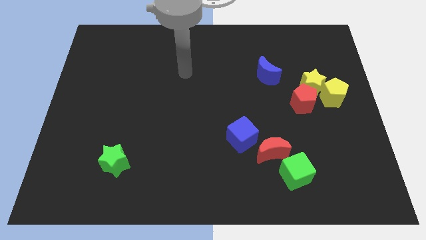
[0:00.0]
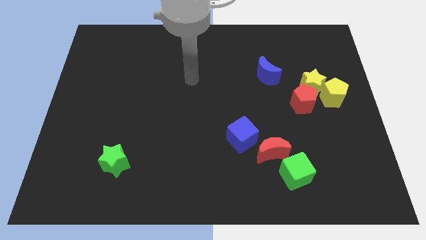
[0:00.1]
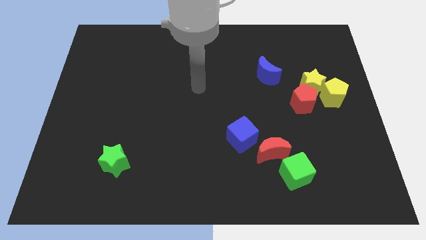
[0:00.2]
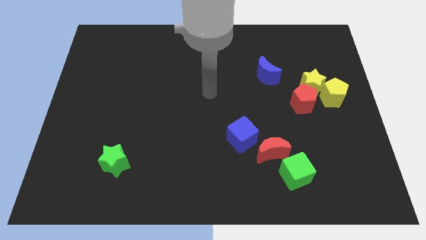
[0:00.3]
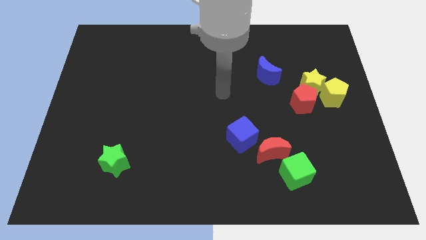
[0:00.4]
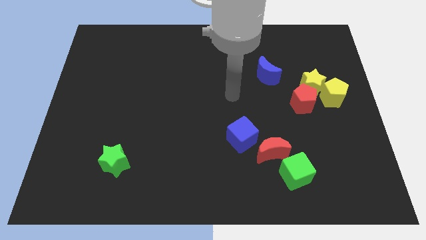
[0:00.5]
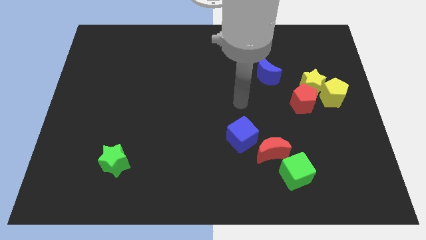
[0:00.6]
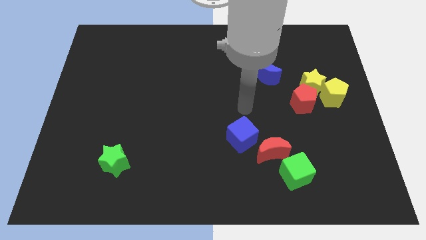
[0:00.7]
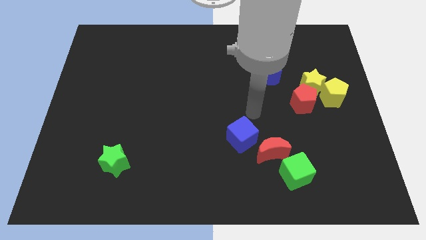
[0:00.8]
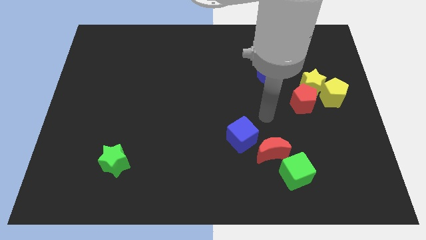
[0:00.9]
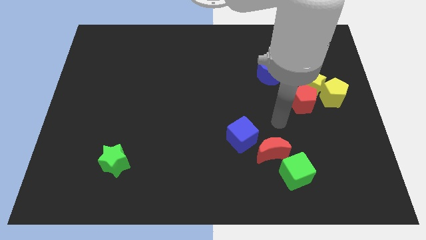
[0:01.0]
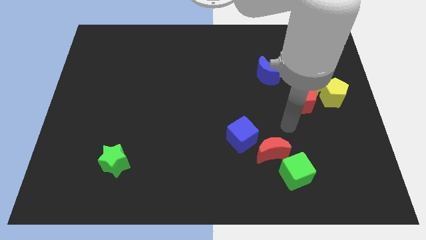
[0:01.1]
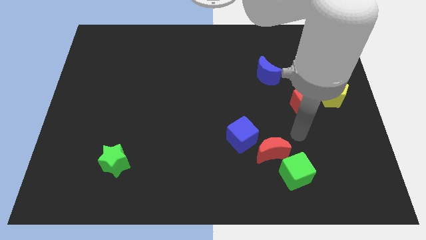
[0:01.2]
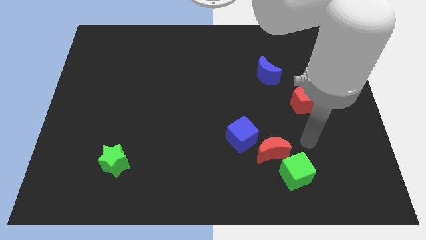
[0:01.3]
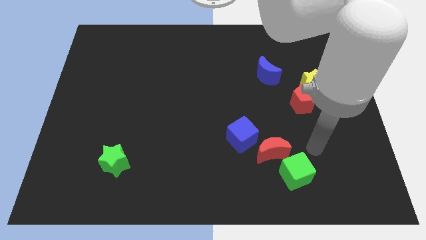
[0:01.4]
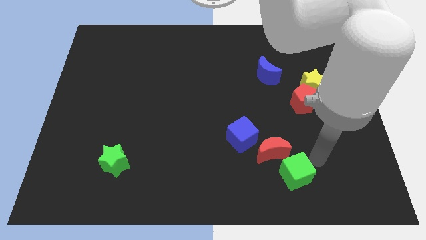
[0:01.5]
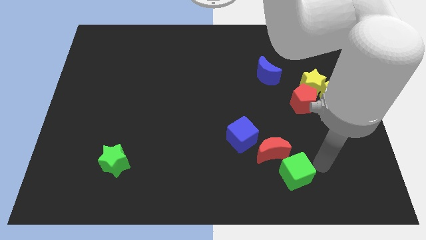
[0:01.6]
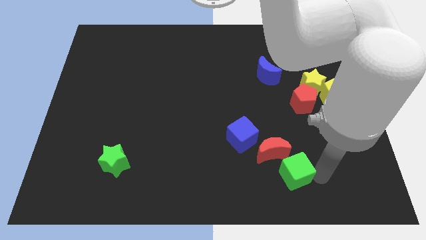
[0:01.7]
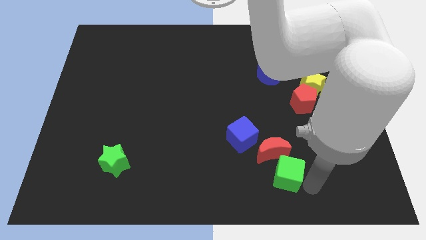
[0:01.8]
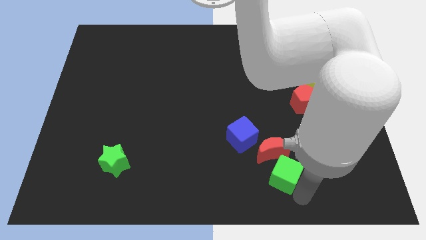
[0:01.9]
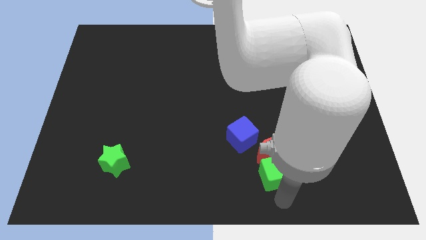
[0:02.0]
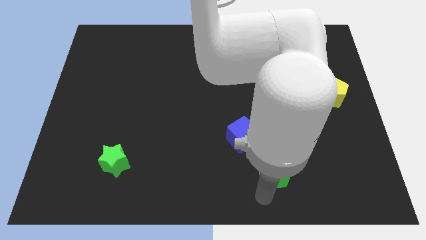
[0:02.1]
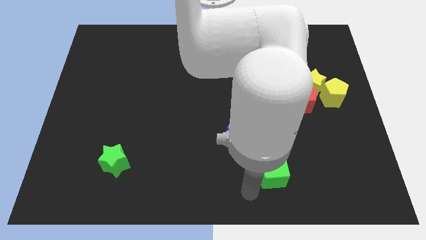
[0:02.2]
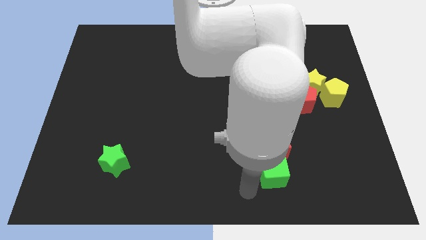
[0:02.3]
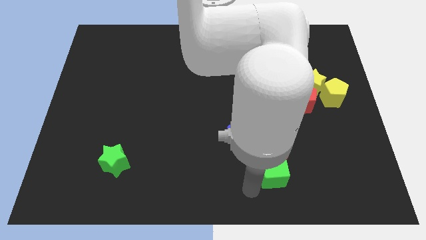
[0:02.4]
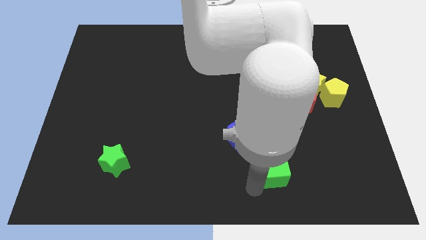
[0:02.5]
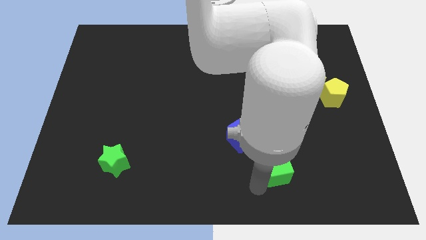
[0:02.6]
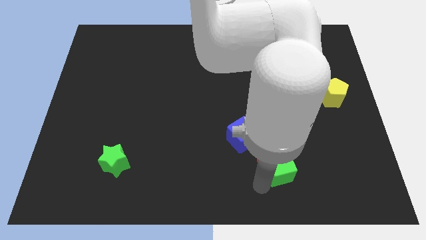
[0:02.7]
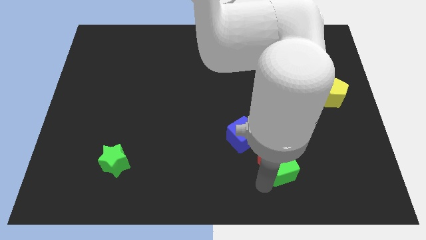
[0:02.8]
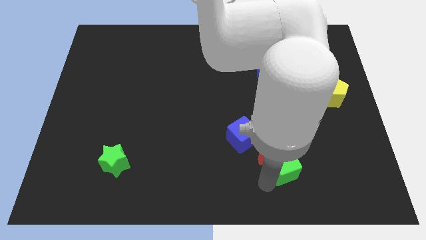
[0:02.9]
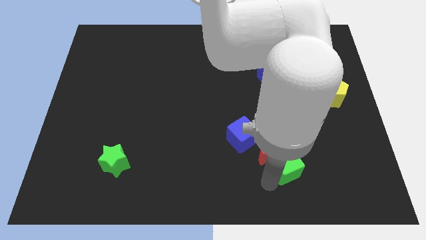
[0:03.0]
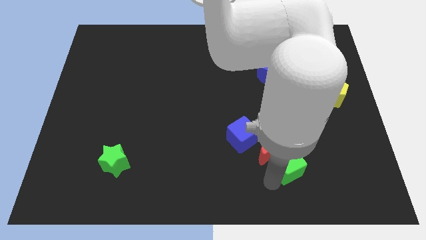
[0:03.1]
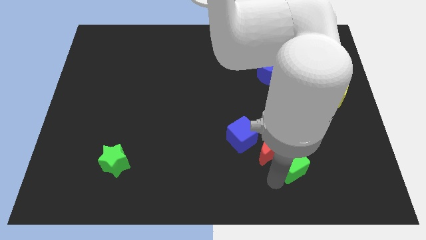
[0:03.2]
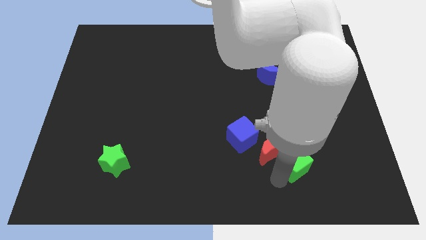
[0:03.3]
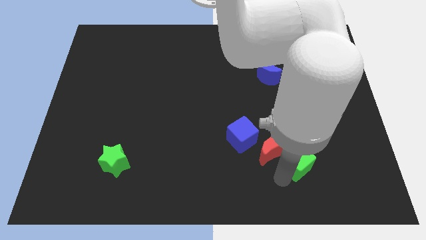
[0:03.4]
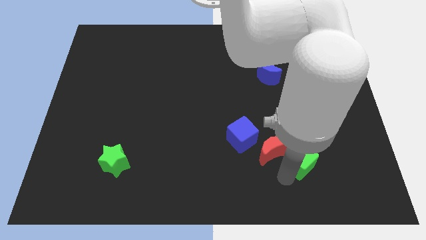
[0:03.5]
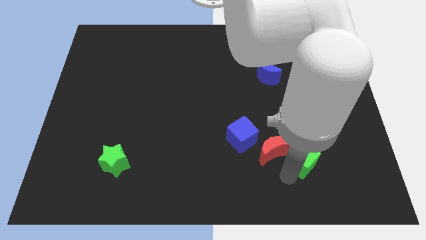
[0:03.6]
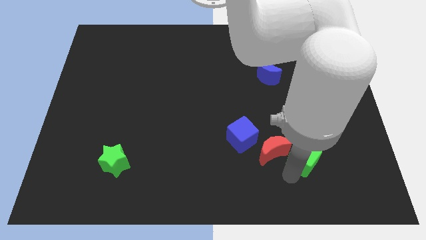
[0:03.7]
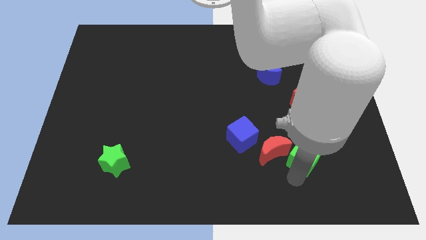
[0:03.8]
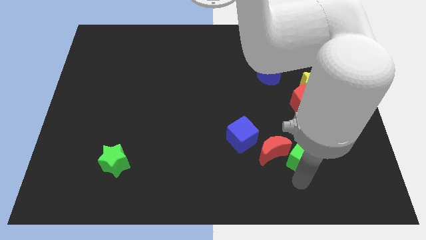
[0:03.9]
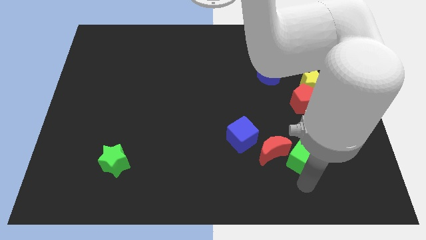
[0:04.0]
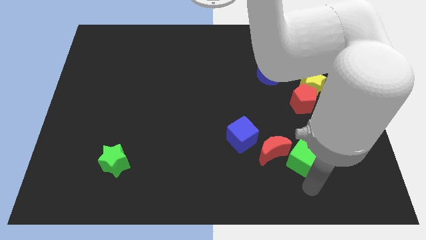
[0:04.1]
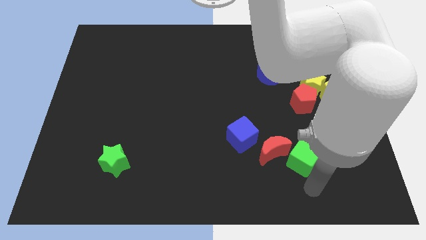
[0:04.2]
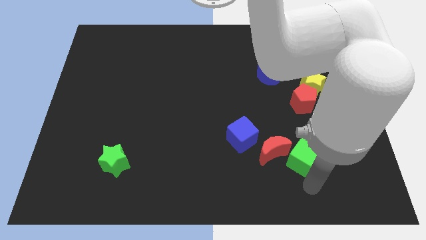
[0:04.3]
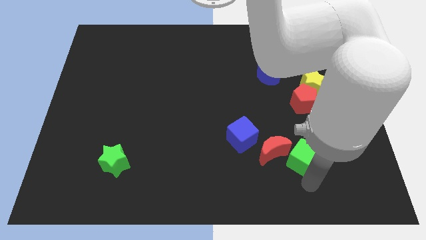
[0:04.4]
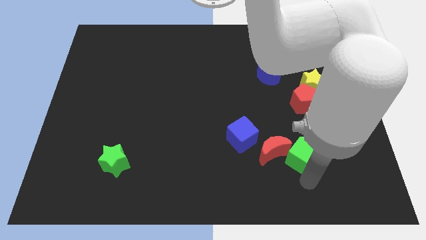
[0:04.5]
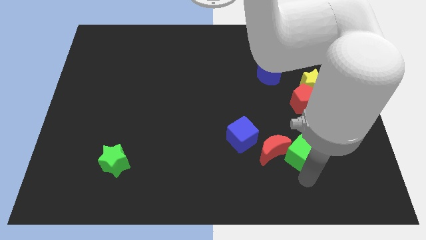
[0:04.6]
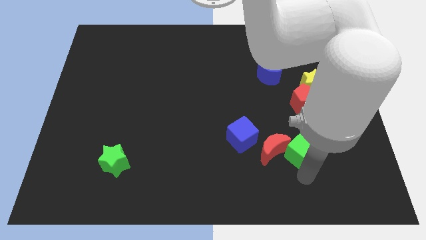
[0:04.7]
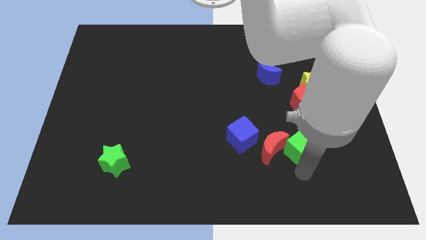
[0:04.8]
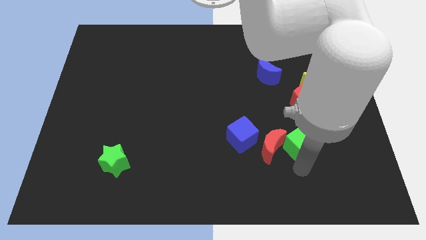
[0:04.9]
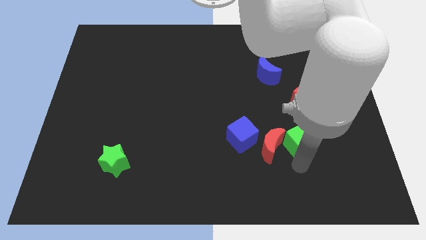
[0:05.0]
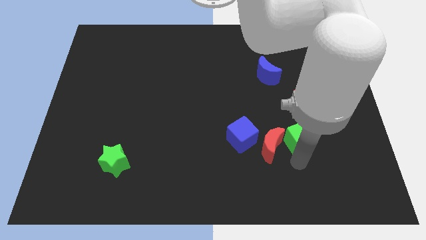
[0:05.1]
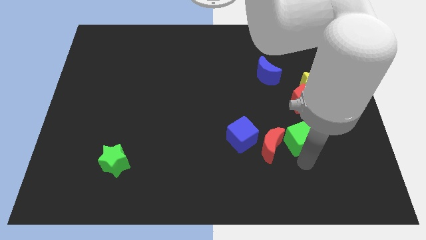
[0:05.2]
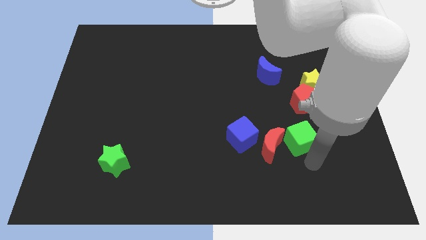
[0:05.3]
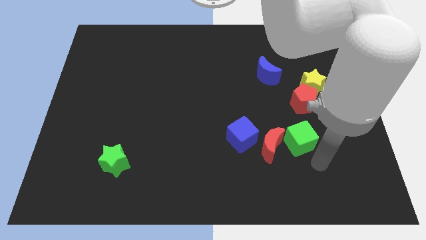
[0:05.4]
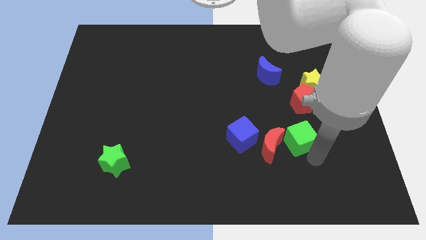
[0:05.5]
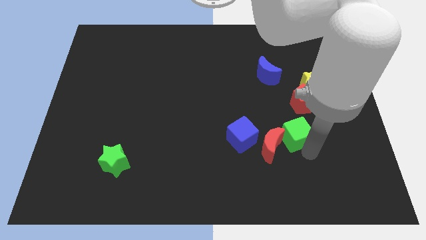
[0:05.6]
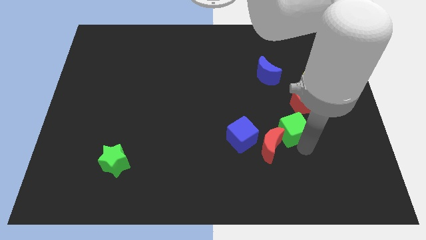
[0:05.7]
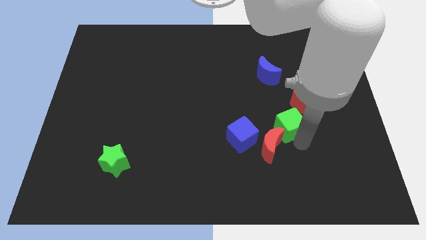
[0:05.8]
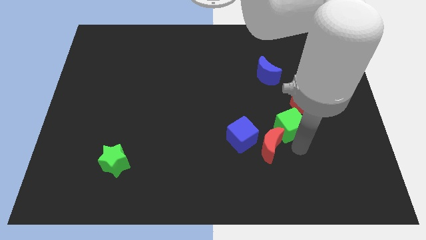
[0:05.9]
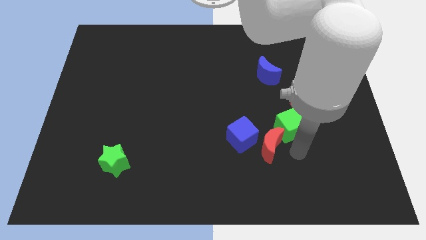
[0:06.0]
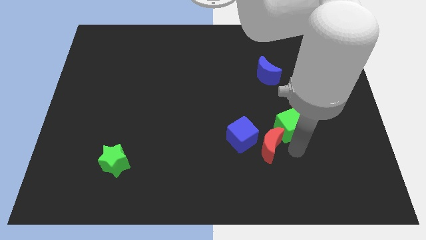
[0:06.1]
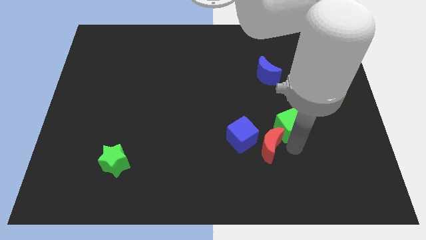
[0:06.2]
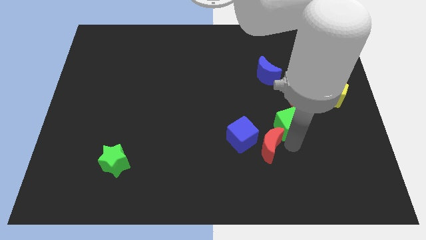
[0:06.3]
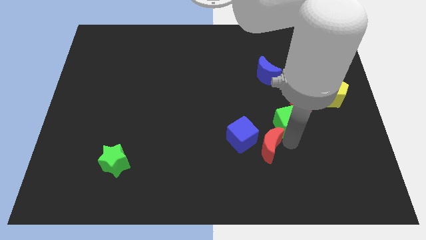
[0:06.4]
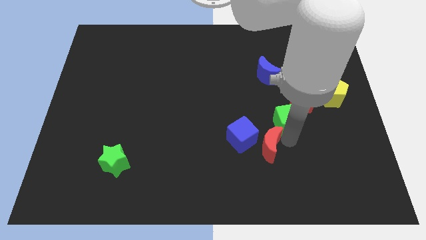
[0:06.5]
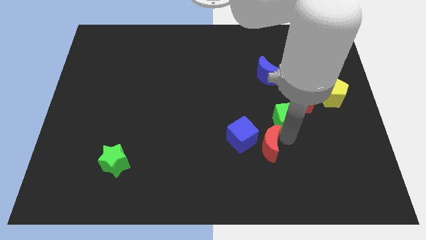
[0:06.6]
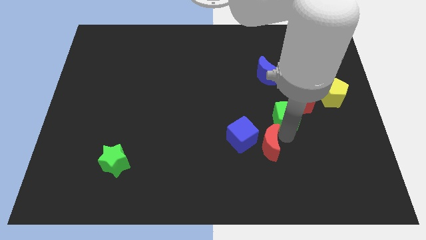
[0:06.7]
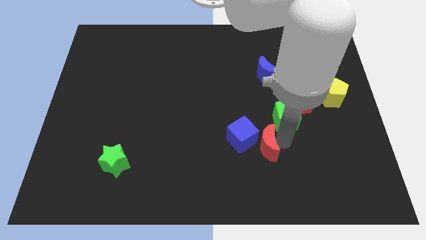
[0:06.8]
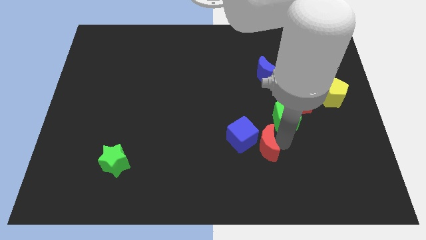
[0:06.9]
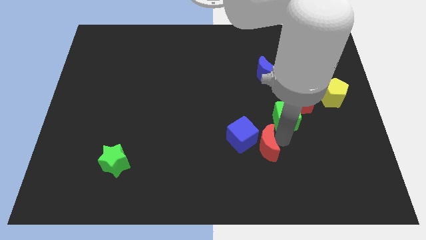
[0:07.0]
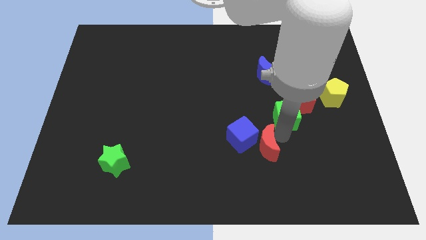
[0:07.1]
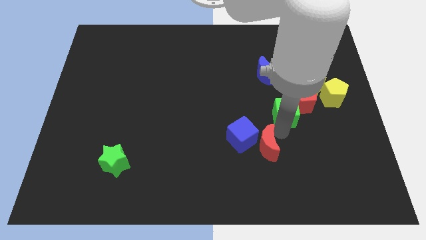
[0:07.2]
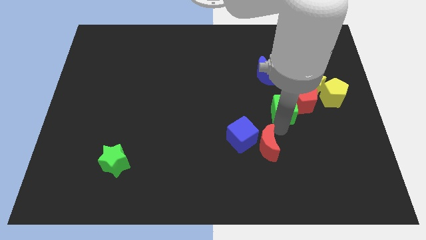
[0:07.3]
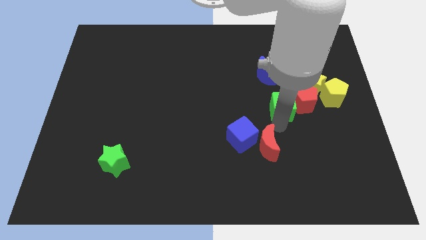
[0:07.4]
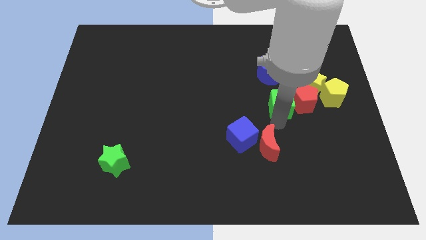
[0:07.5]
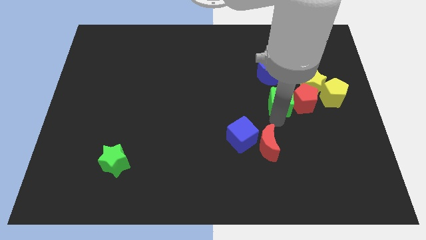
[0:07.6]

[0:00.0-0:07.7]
put the green cube diagonally down and to the right of the blue moon
